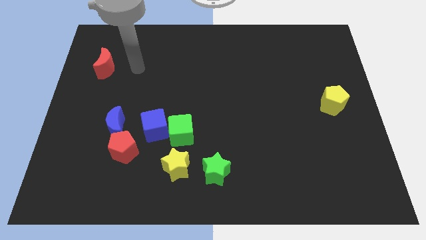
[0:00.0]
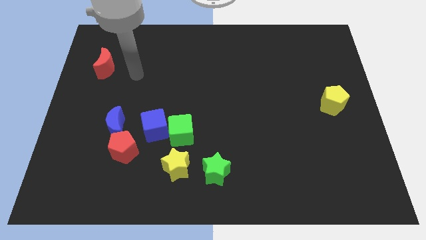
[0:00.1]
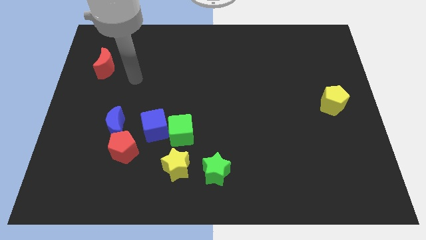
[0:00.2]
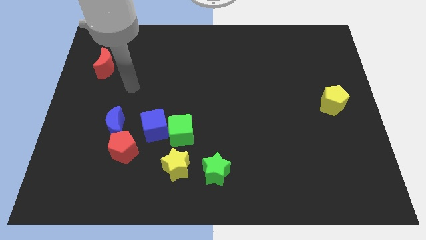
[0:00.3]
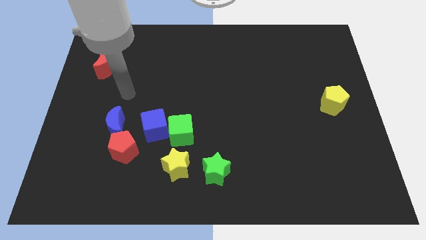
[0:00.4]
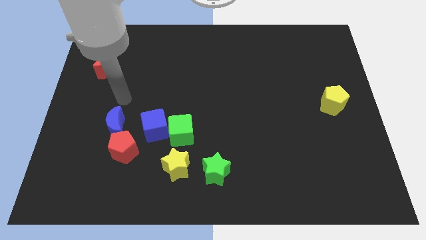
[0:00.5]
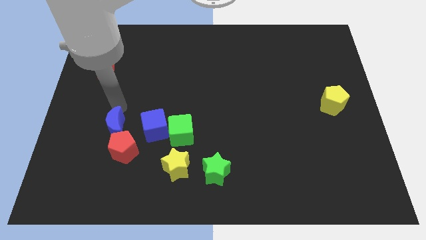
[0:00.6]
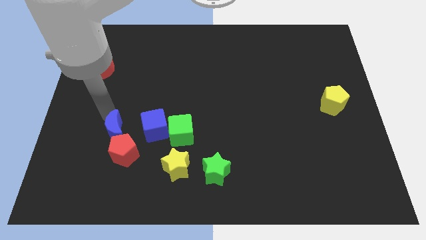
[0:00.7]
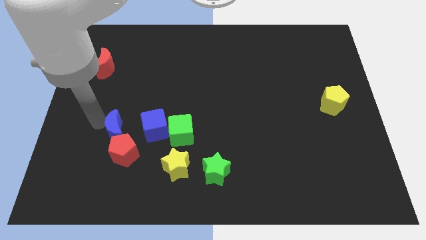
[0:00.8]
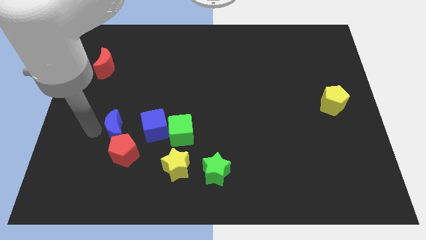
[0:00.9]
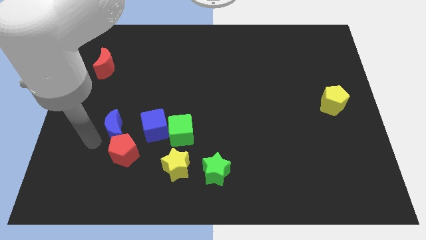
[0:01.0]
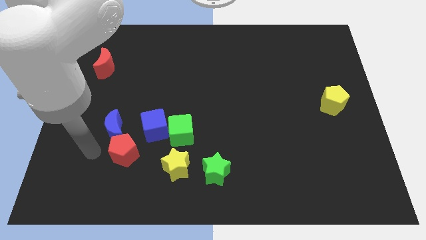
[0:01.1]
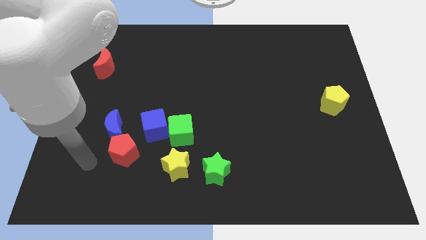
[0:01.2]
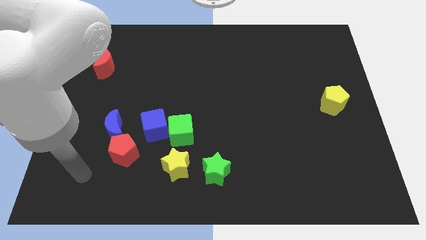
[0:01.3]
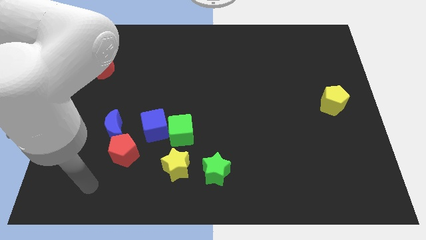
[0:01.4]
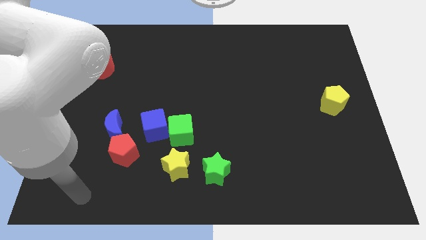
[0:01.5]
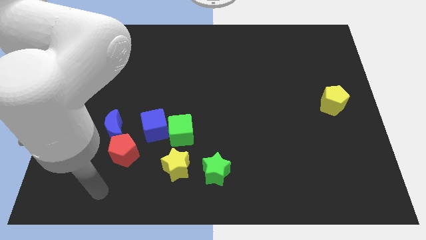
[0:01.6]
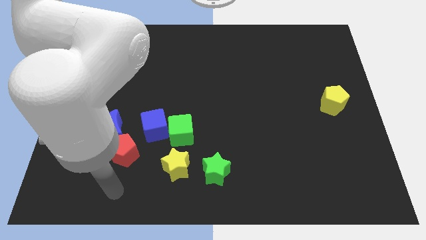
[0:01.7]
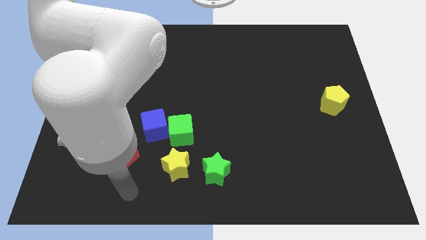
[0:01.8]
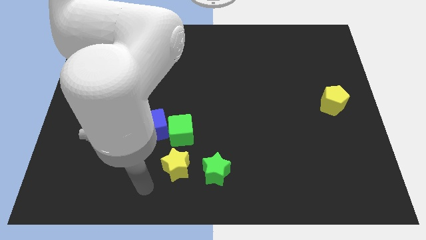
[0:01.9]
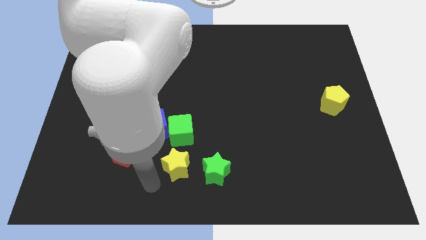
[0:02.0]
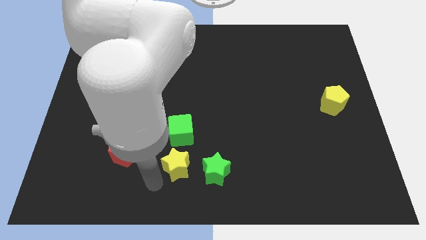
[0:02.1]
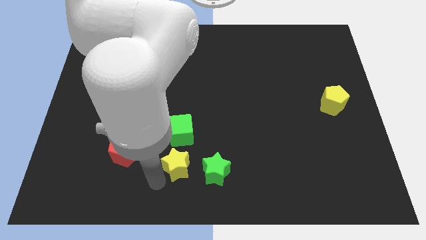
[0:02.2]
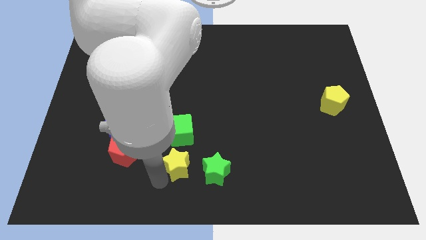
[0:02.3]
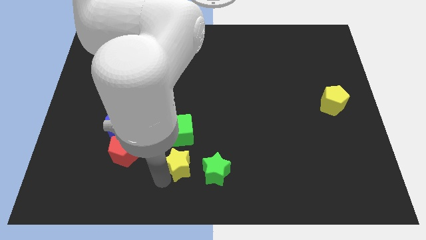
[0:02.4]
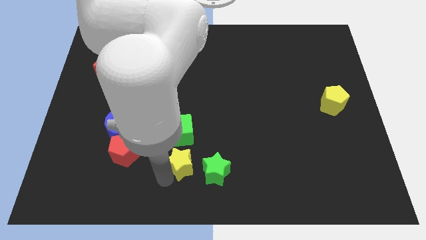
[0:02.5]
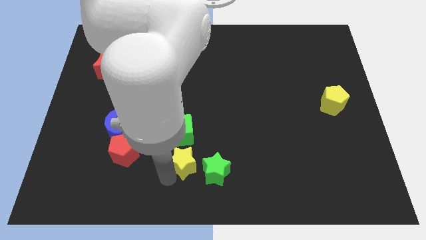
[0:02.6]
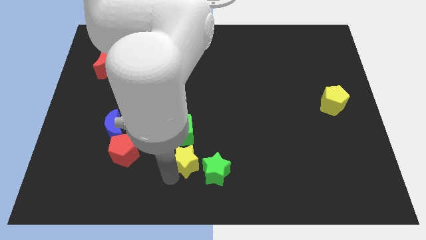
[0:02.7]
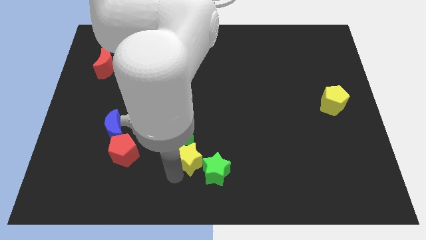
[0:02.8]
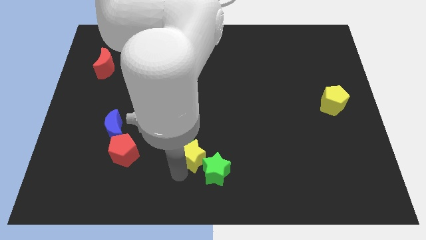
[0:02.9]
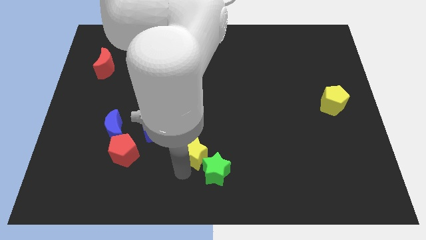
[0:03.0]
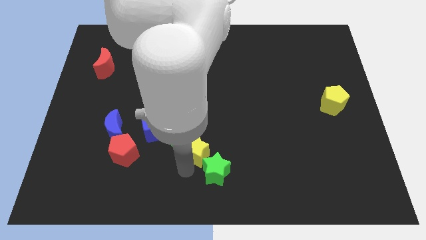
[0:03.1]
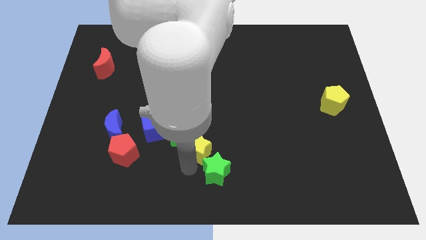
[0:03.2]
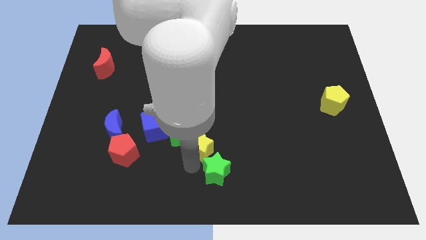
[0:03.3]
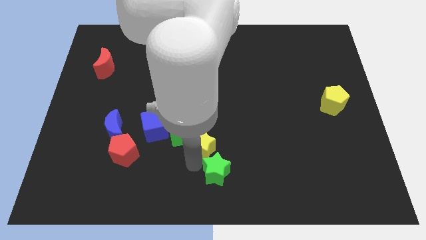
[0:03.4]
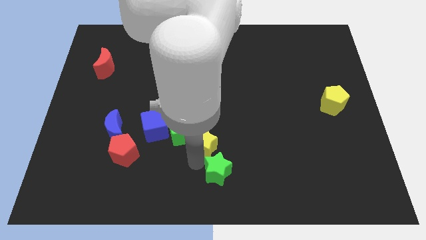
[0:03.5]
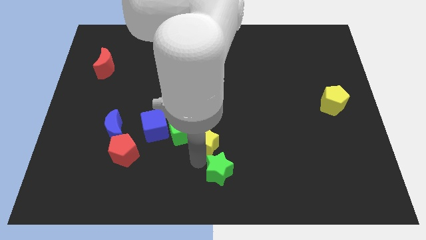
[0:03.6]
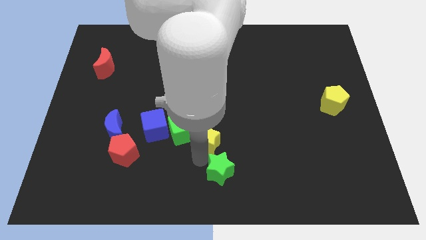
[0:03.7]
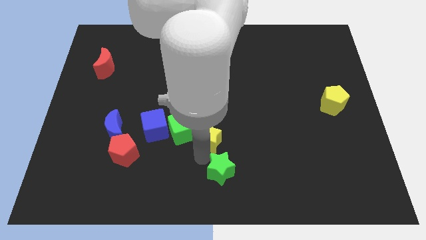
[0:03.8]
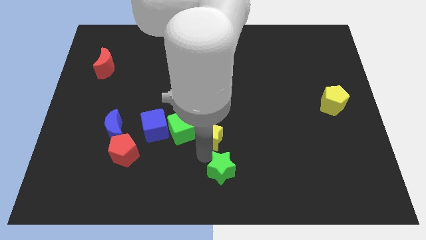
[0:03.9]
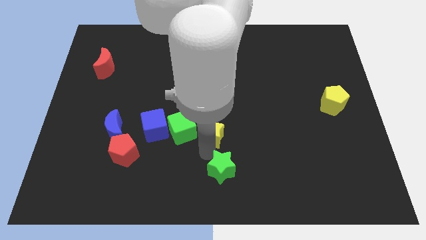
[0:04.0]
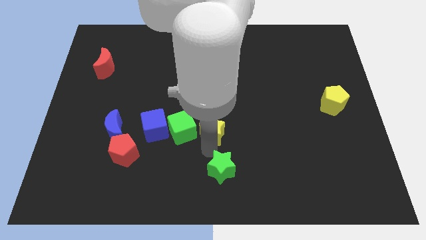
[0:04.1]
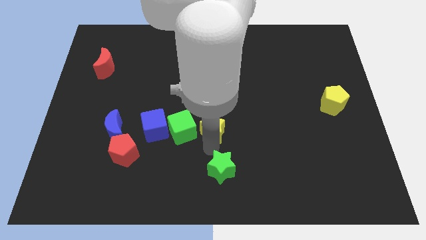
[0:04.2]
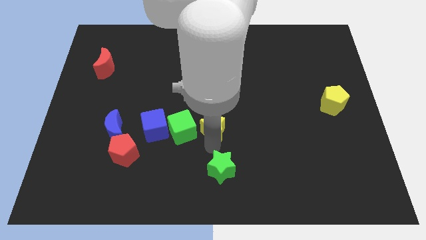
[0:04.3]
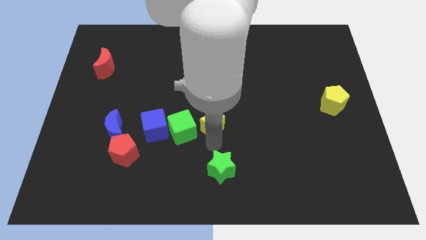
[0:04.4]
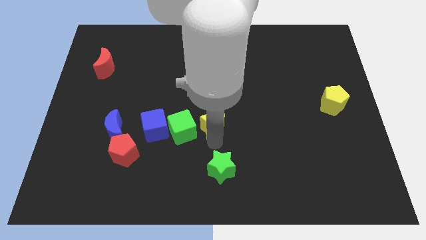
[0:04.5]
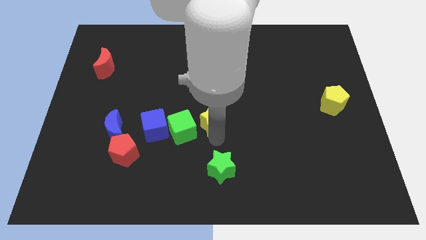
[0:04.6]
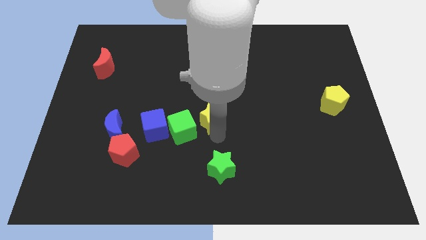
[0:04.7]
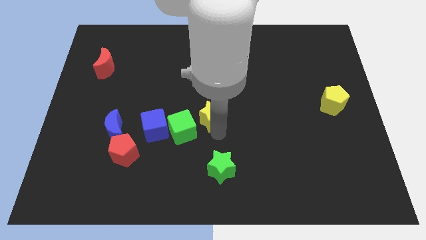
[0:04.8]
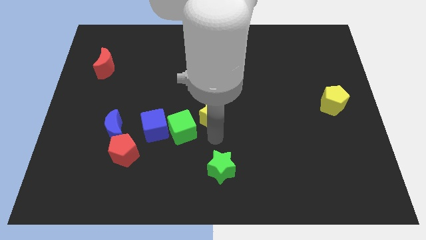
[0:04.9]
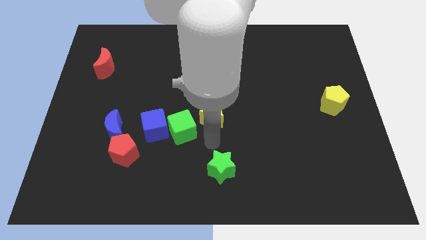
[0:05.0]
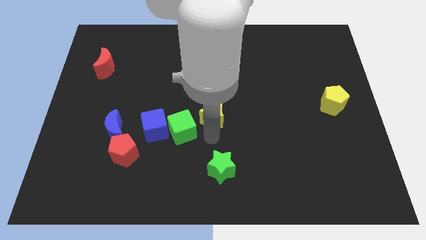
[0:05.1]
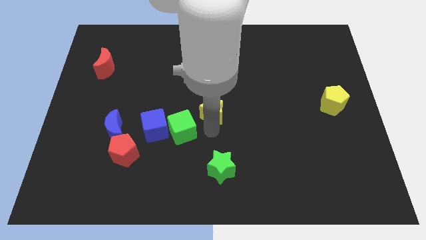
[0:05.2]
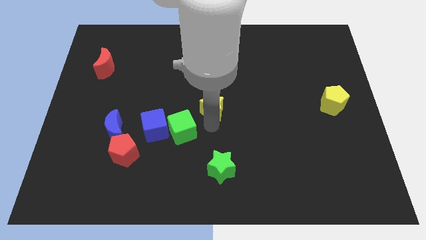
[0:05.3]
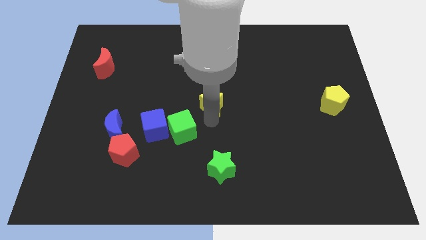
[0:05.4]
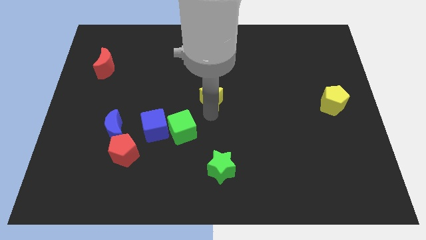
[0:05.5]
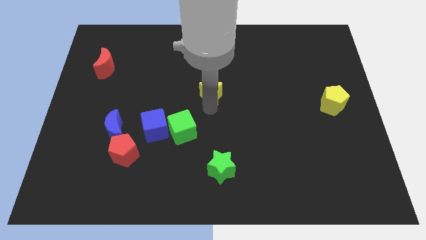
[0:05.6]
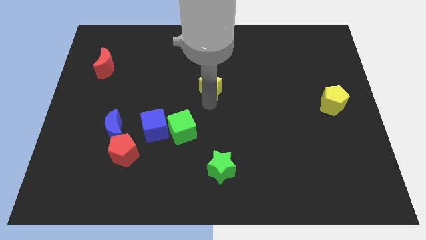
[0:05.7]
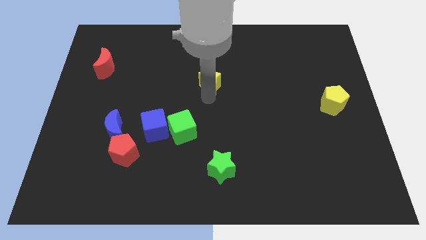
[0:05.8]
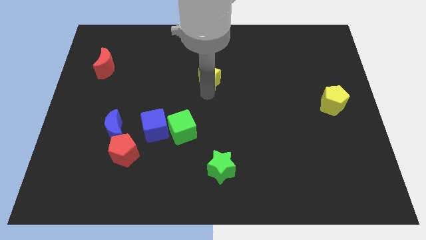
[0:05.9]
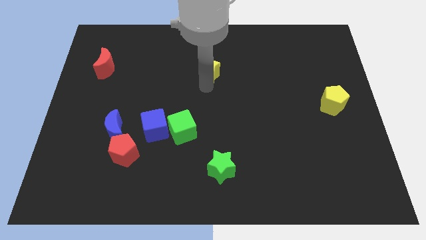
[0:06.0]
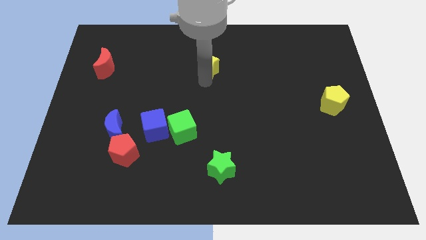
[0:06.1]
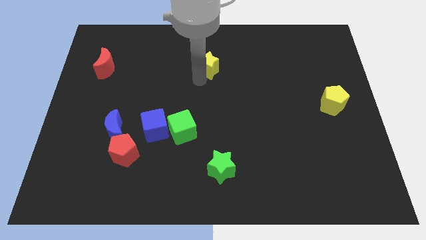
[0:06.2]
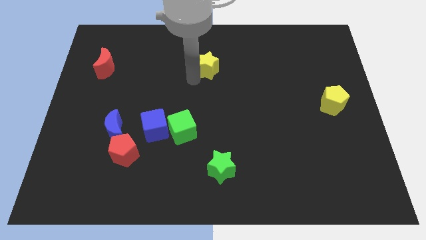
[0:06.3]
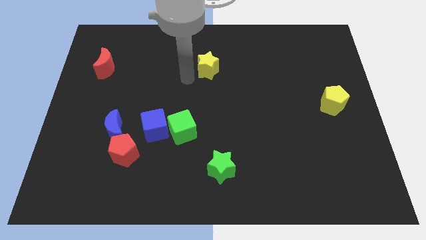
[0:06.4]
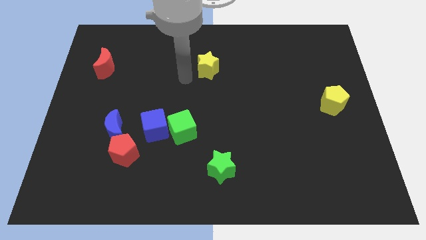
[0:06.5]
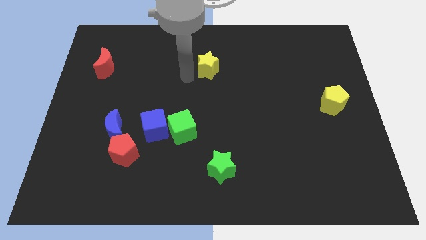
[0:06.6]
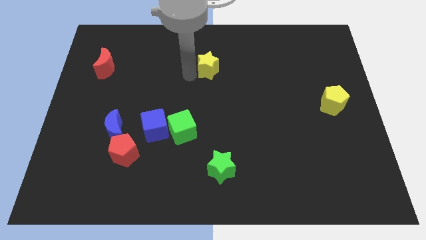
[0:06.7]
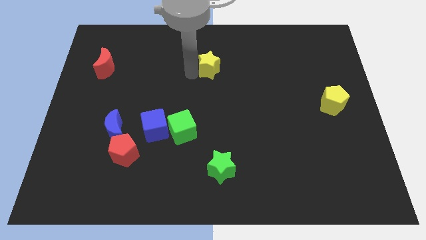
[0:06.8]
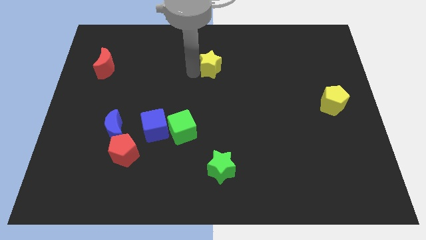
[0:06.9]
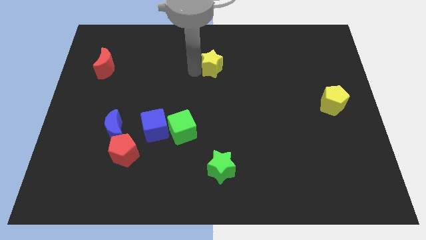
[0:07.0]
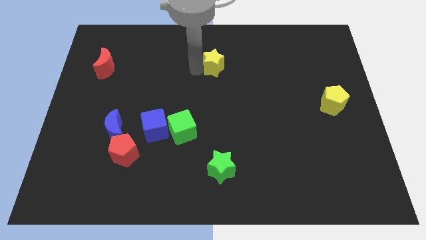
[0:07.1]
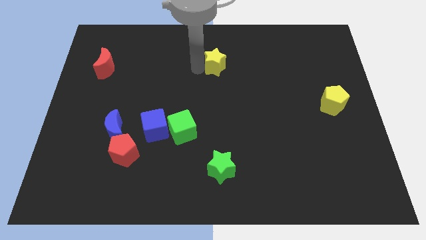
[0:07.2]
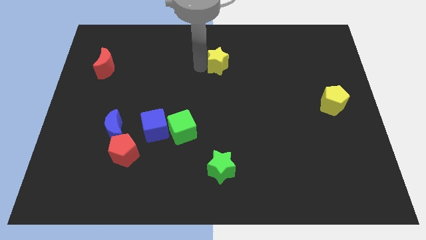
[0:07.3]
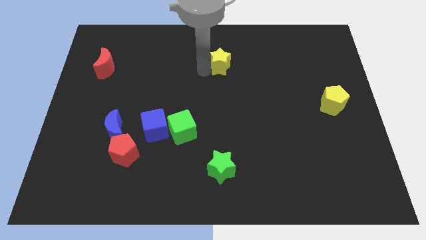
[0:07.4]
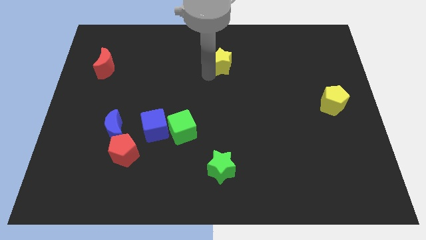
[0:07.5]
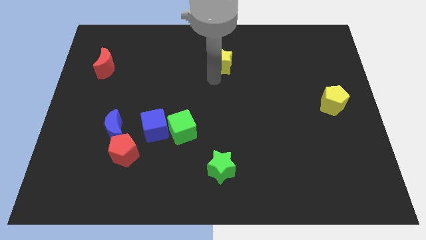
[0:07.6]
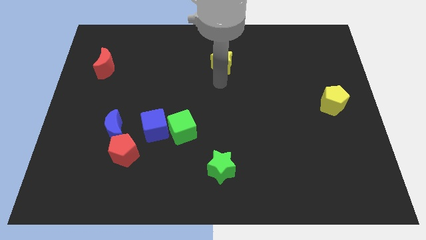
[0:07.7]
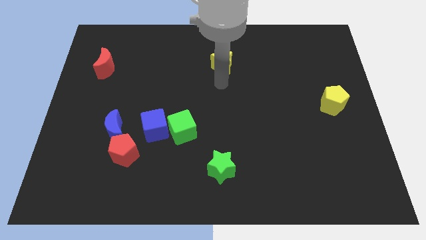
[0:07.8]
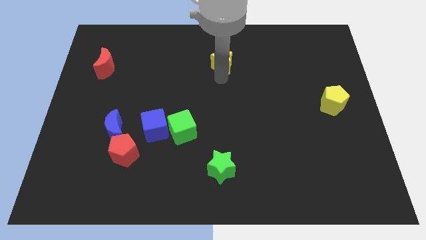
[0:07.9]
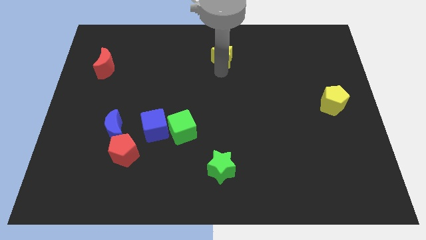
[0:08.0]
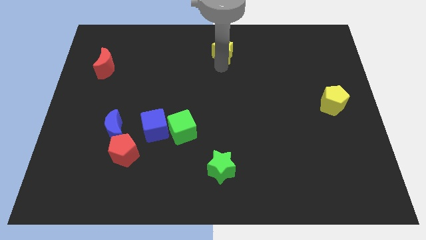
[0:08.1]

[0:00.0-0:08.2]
put the yellow star to the top side
